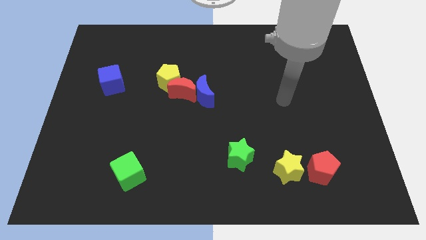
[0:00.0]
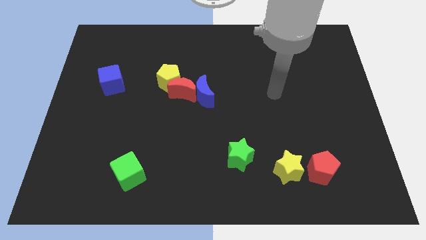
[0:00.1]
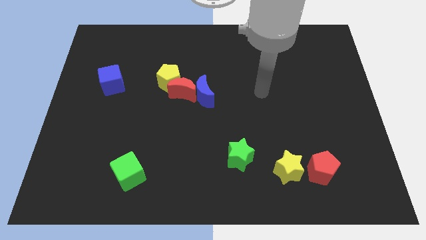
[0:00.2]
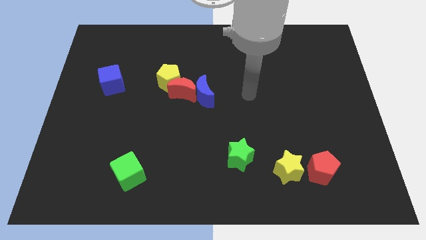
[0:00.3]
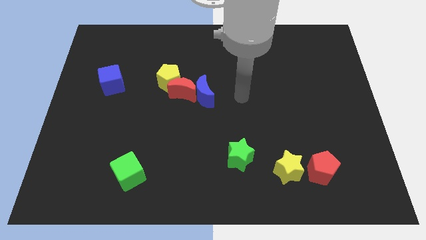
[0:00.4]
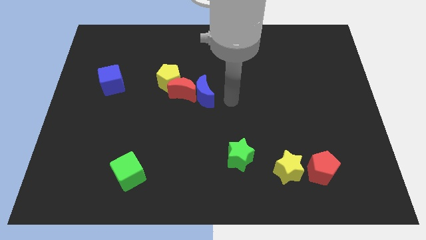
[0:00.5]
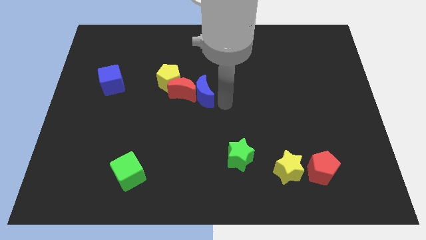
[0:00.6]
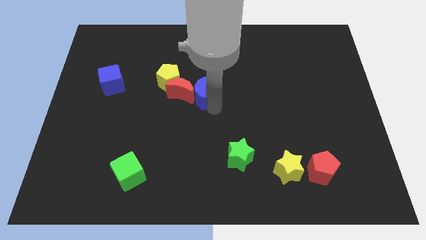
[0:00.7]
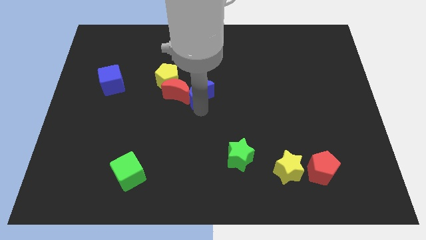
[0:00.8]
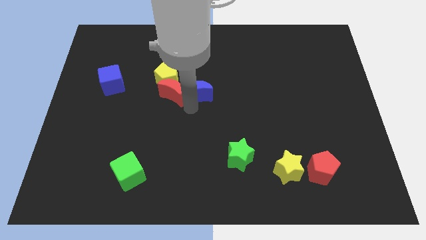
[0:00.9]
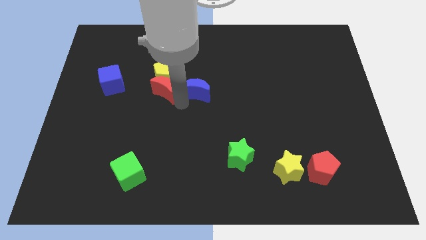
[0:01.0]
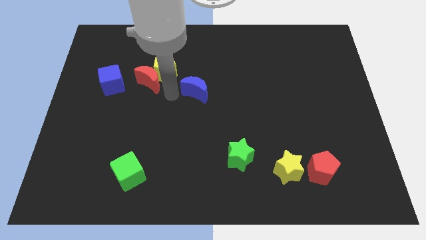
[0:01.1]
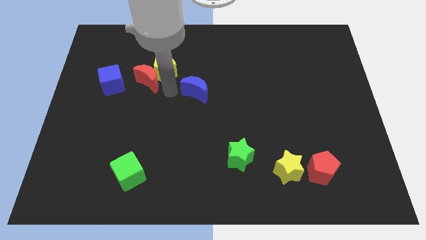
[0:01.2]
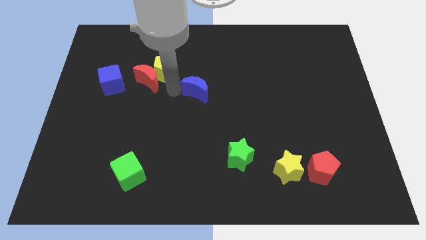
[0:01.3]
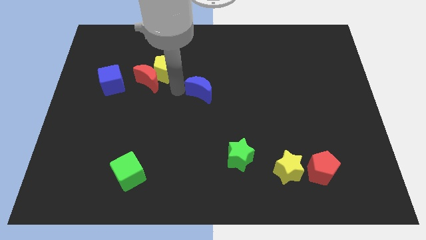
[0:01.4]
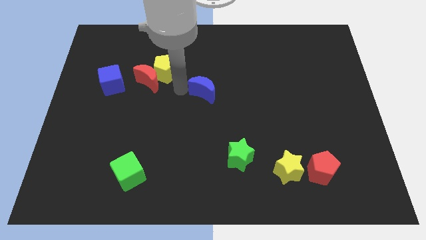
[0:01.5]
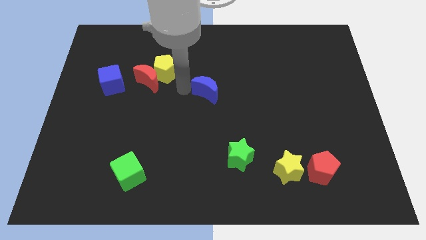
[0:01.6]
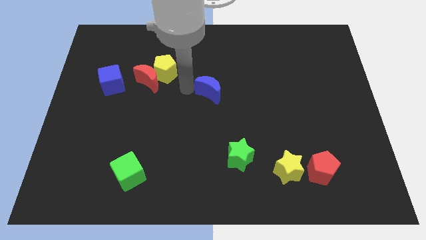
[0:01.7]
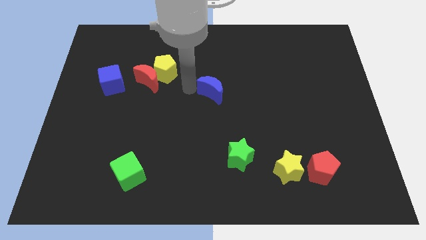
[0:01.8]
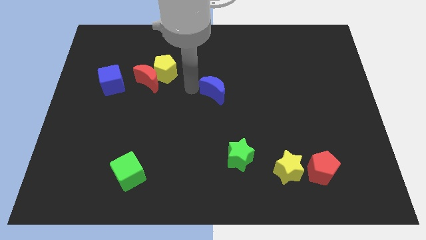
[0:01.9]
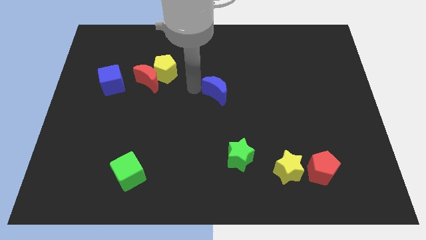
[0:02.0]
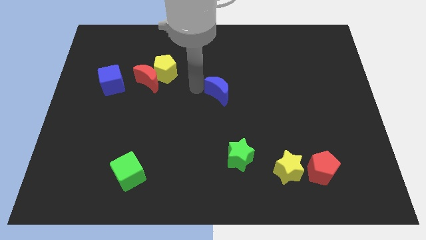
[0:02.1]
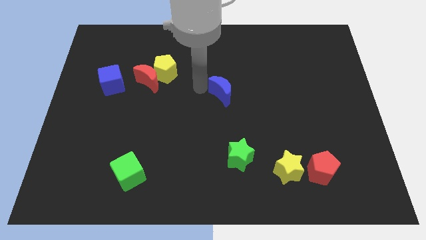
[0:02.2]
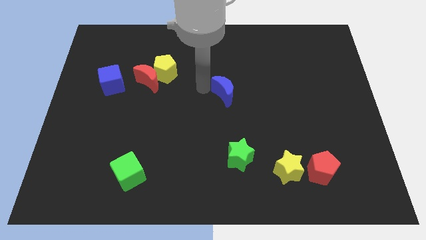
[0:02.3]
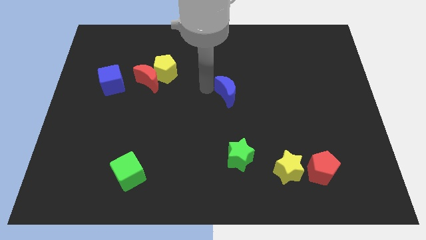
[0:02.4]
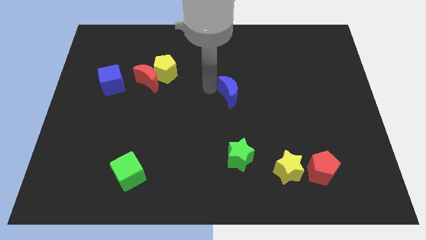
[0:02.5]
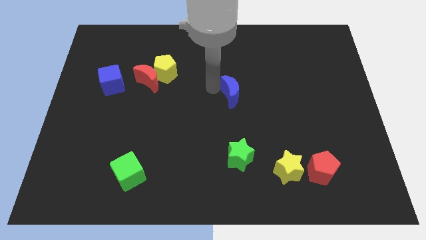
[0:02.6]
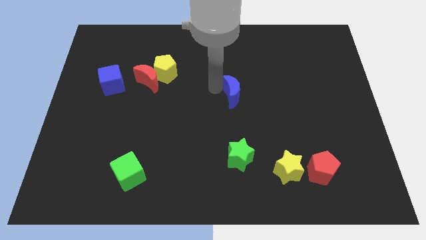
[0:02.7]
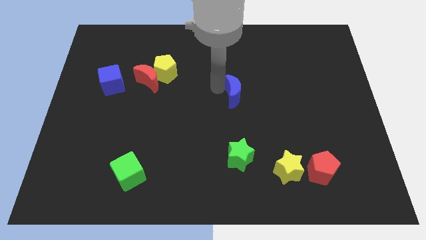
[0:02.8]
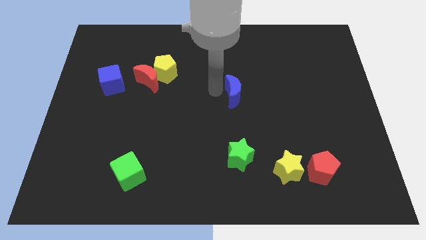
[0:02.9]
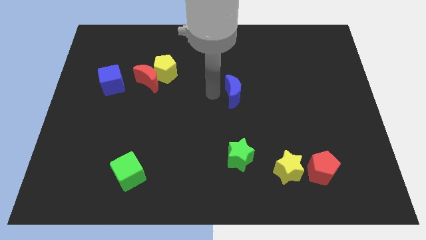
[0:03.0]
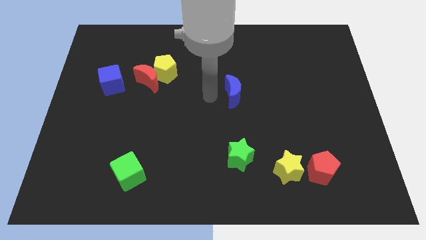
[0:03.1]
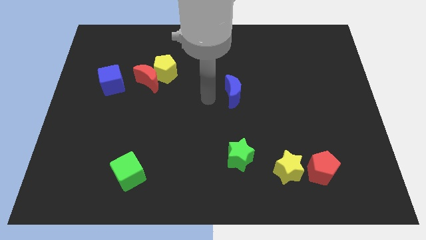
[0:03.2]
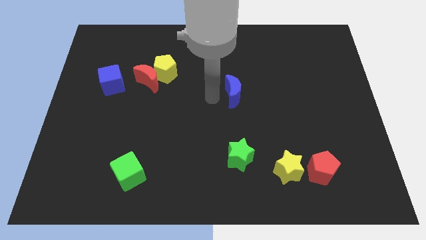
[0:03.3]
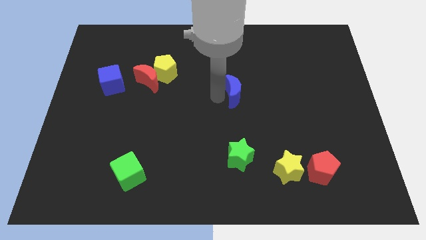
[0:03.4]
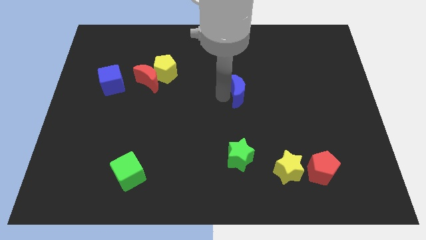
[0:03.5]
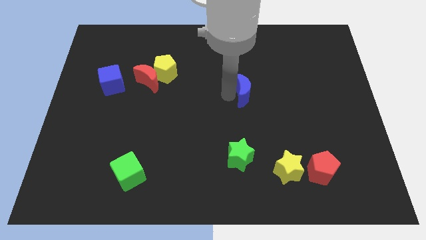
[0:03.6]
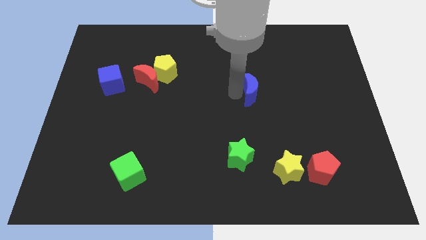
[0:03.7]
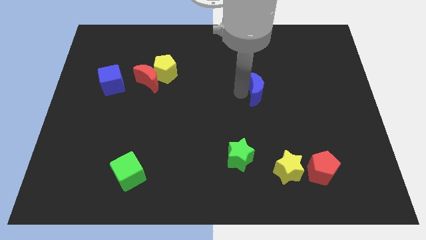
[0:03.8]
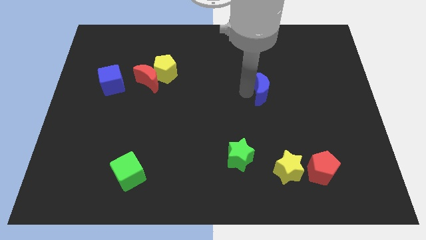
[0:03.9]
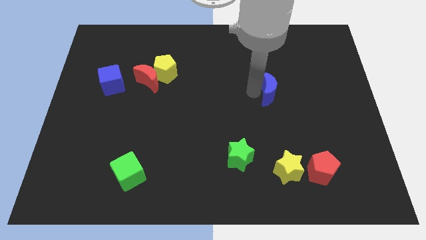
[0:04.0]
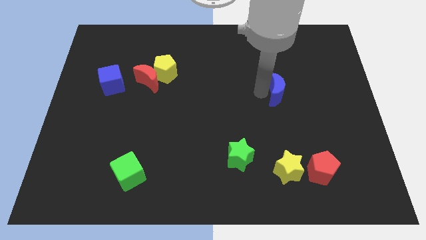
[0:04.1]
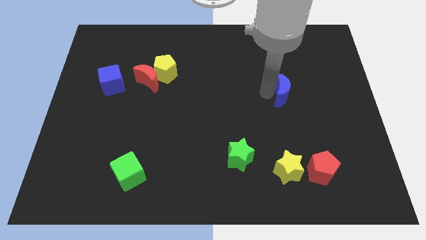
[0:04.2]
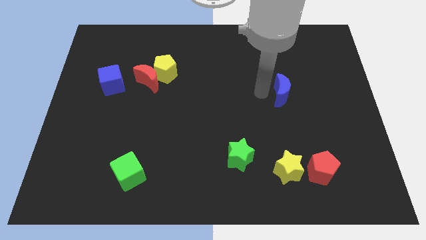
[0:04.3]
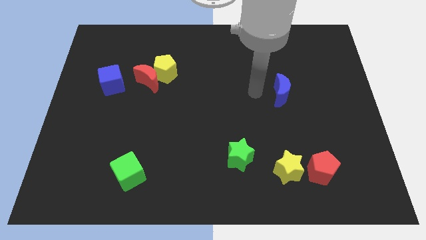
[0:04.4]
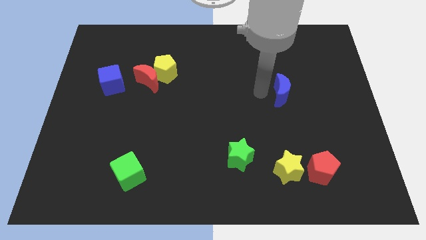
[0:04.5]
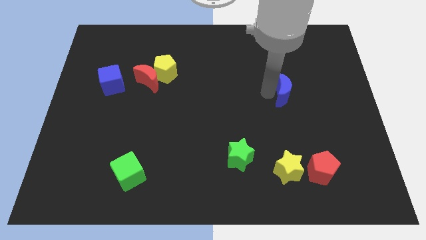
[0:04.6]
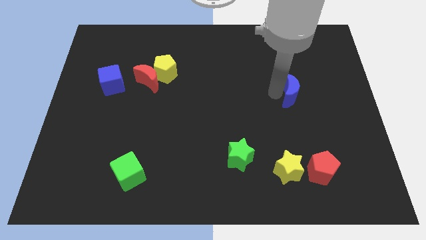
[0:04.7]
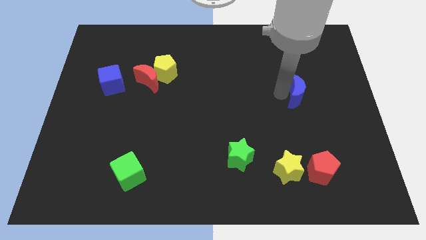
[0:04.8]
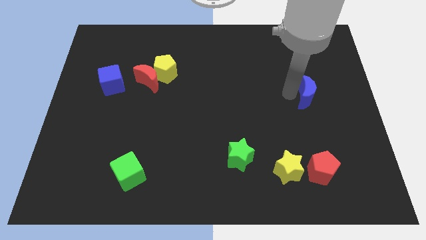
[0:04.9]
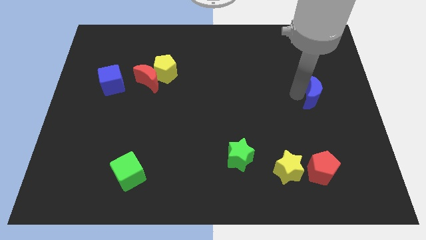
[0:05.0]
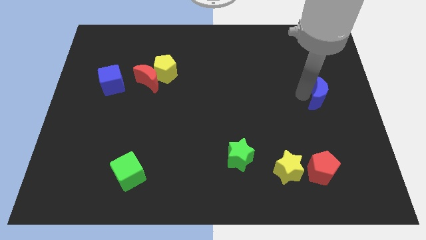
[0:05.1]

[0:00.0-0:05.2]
put the blue moon to the right side

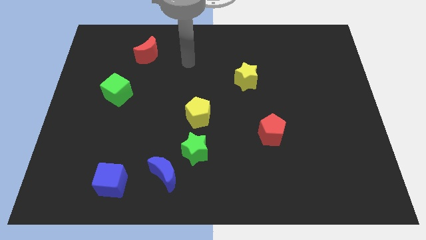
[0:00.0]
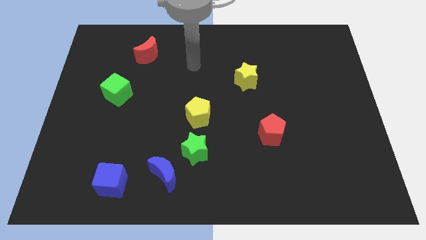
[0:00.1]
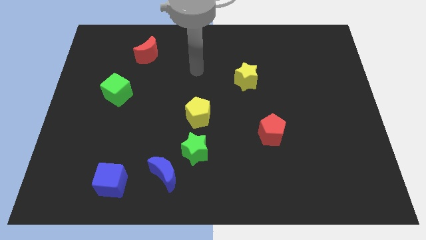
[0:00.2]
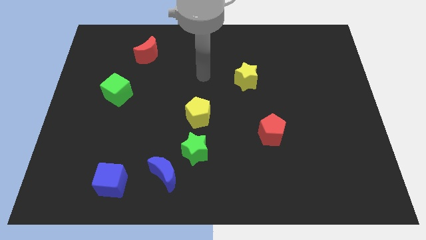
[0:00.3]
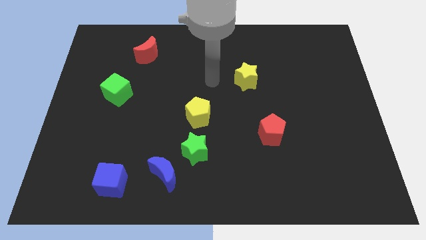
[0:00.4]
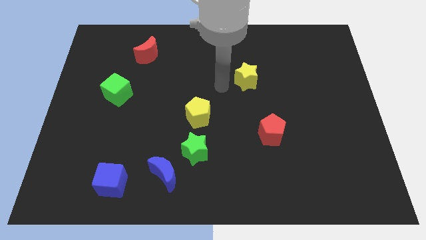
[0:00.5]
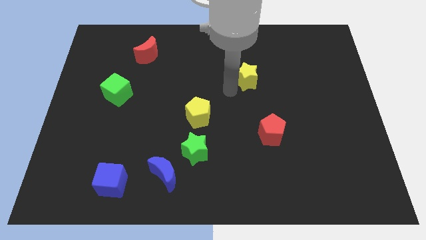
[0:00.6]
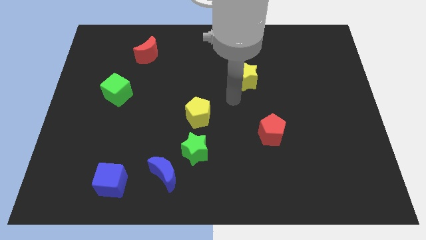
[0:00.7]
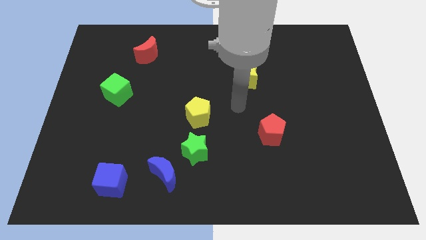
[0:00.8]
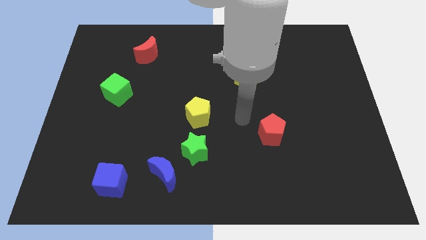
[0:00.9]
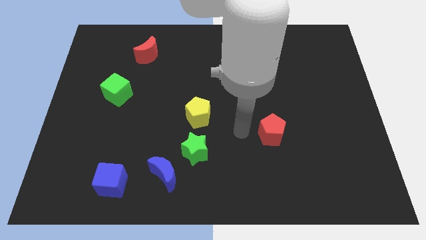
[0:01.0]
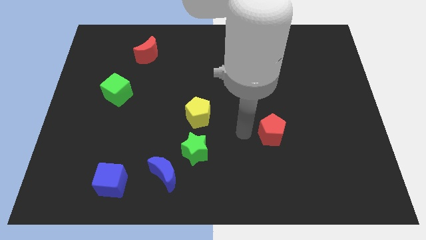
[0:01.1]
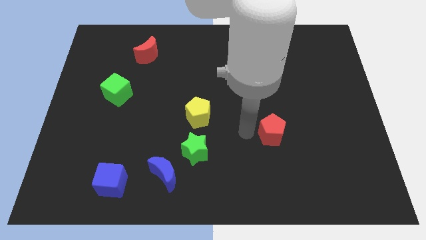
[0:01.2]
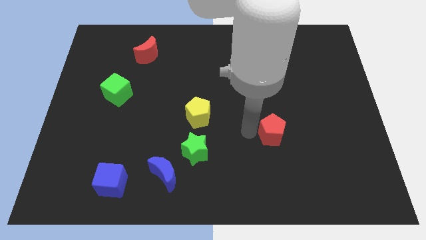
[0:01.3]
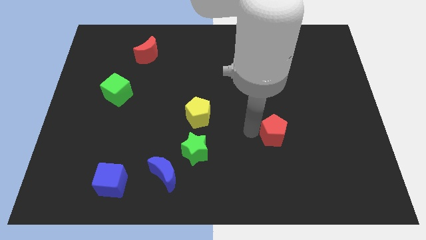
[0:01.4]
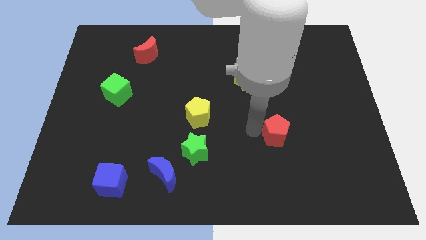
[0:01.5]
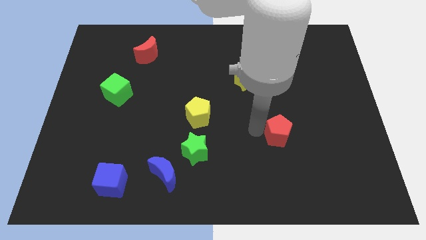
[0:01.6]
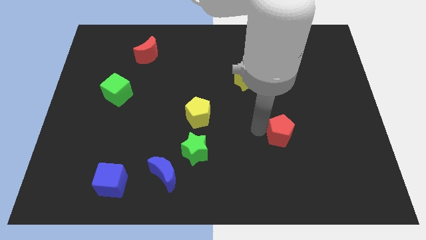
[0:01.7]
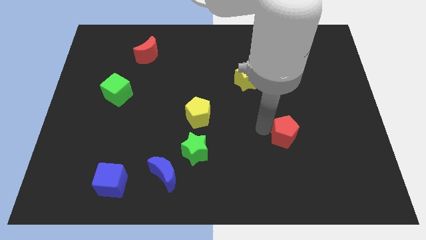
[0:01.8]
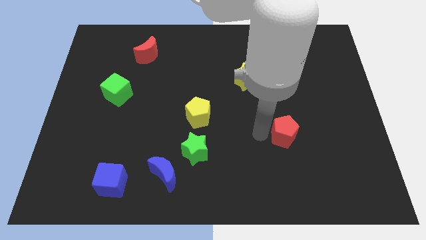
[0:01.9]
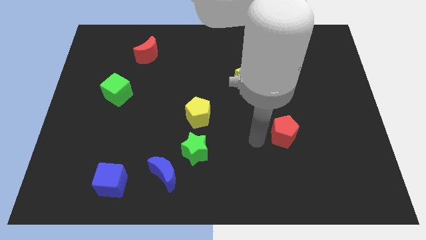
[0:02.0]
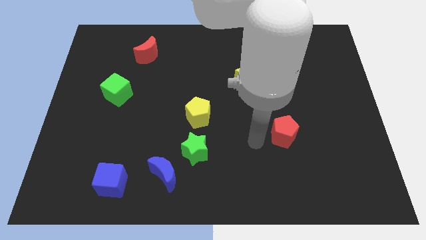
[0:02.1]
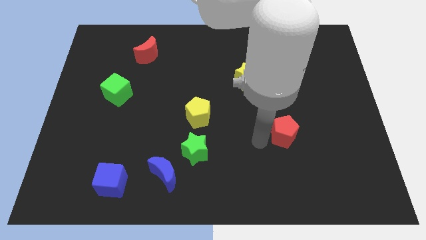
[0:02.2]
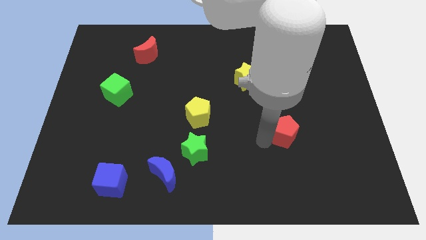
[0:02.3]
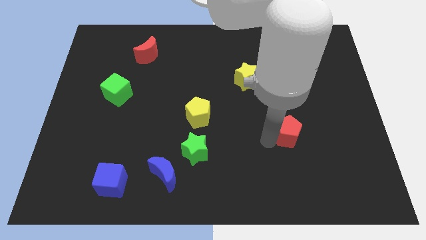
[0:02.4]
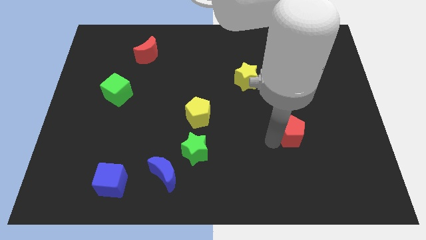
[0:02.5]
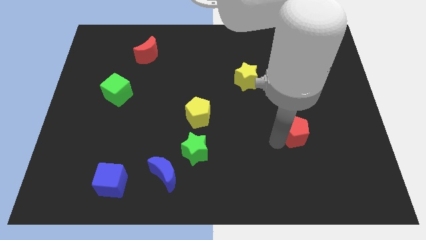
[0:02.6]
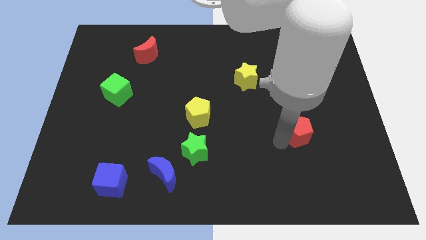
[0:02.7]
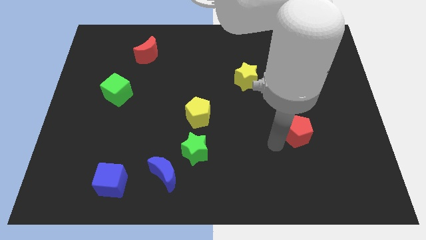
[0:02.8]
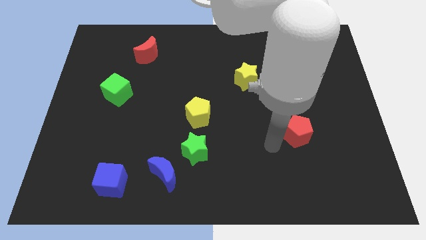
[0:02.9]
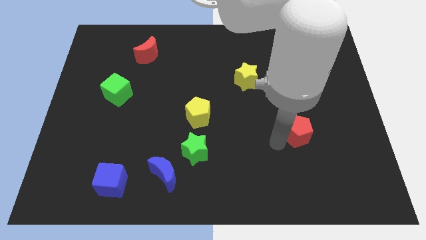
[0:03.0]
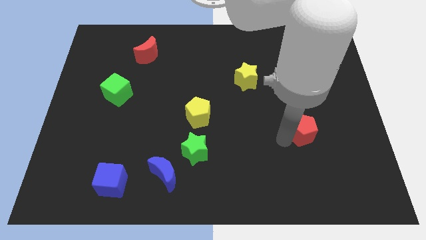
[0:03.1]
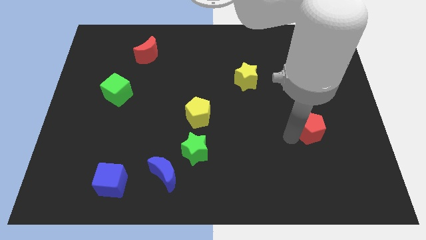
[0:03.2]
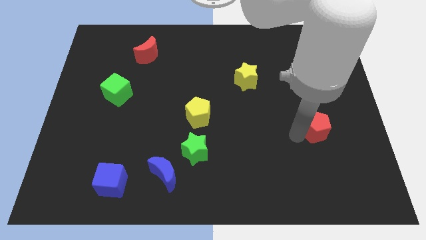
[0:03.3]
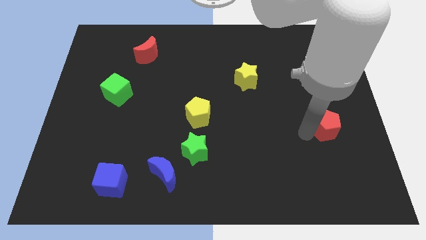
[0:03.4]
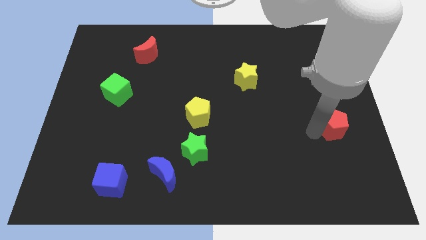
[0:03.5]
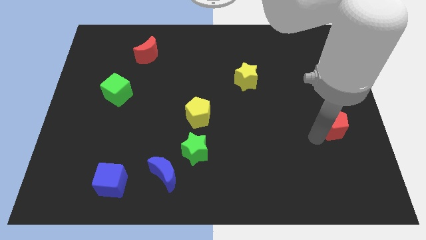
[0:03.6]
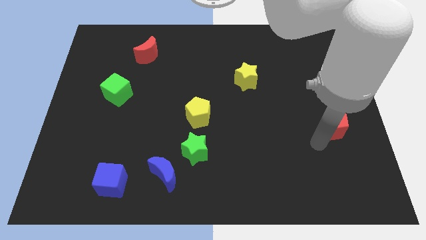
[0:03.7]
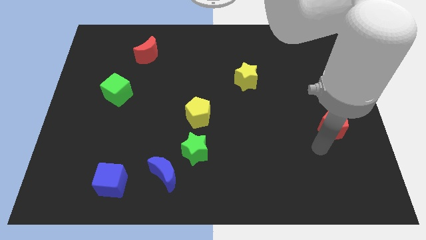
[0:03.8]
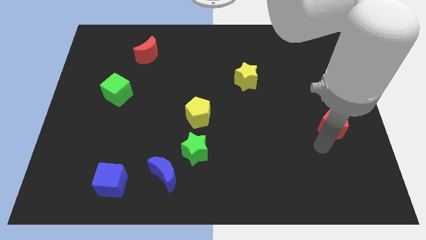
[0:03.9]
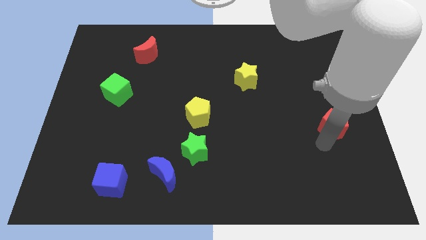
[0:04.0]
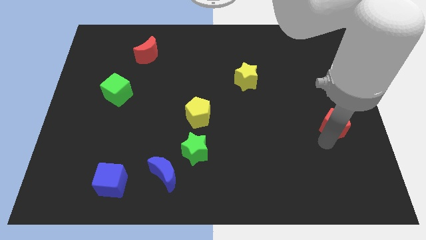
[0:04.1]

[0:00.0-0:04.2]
move the red pentagon to the right side of the board
